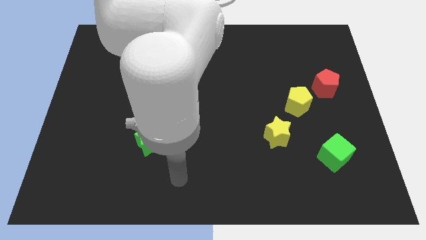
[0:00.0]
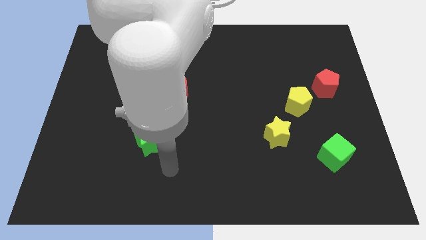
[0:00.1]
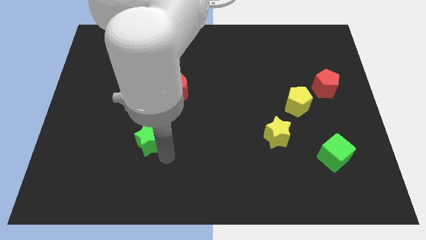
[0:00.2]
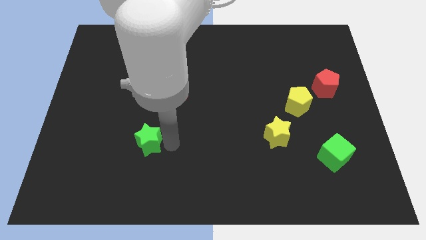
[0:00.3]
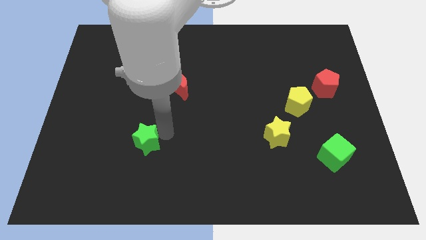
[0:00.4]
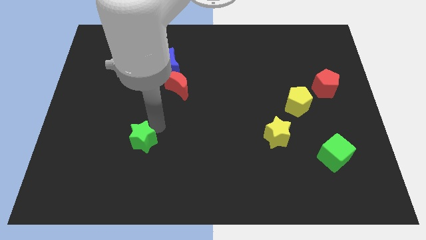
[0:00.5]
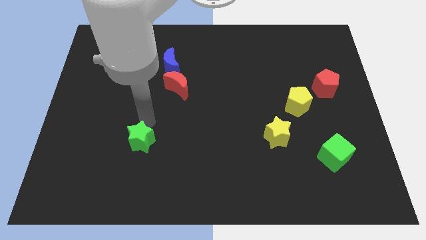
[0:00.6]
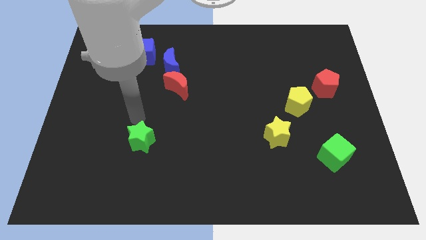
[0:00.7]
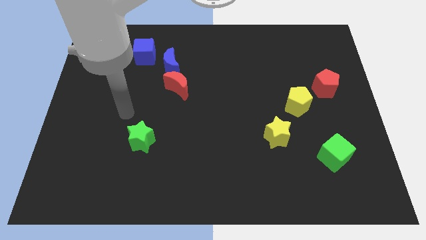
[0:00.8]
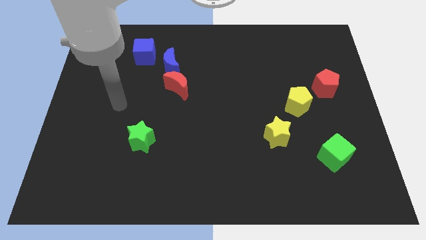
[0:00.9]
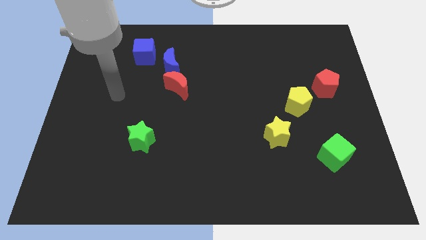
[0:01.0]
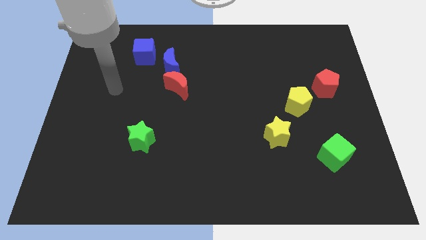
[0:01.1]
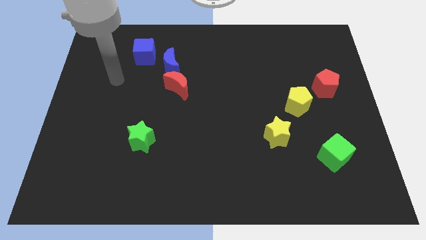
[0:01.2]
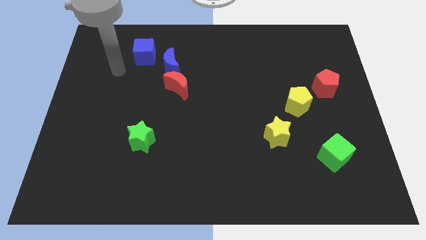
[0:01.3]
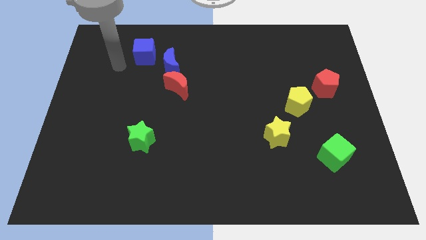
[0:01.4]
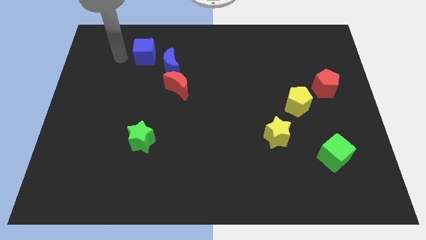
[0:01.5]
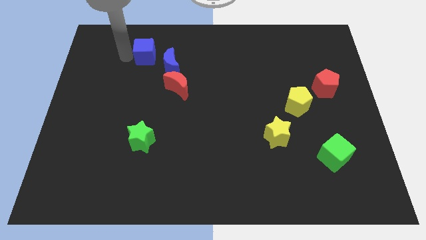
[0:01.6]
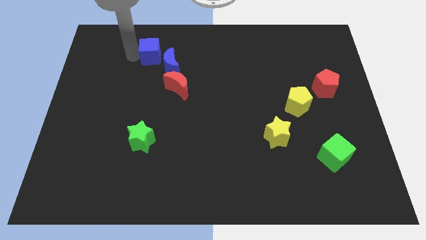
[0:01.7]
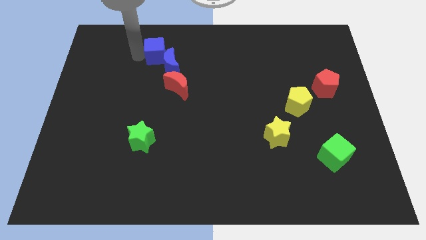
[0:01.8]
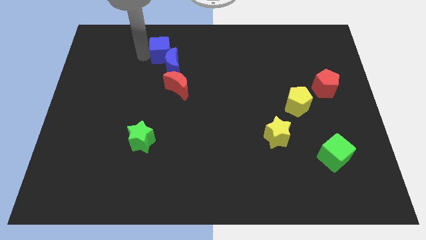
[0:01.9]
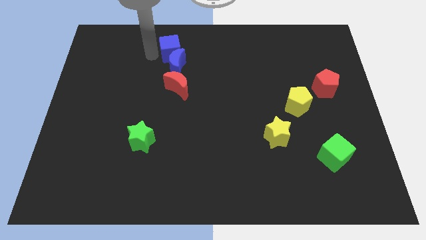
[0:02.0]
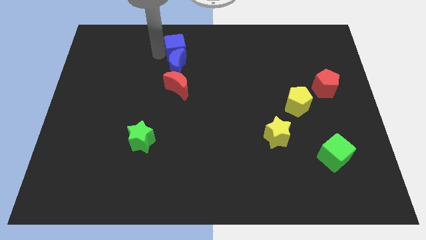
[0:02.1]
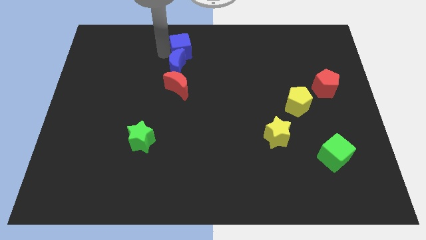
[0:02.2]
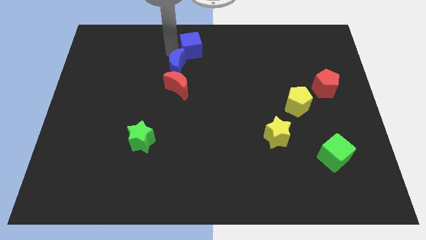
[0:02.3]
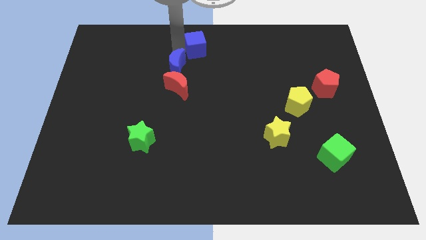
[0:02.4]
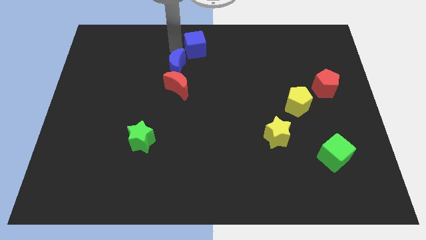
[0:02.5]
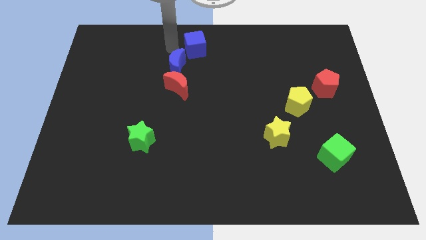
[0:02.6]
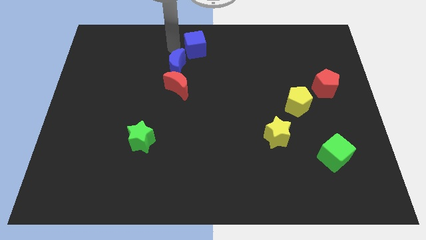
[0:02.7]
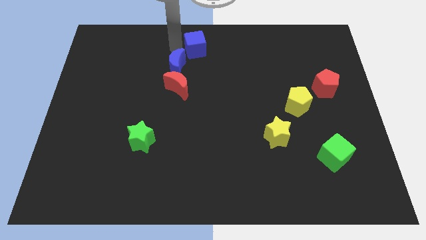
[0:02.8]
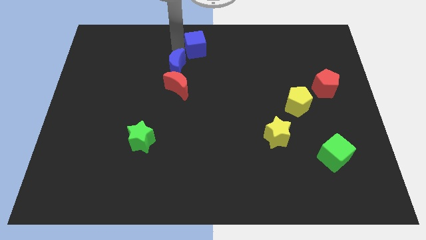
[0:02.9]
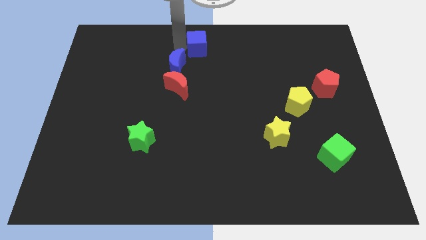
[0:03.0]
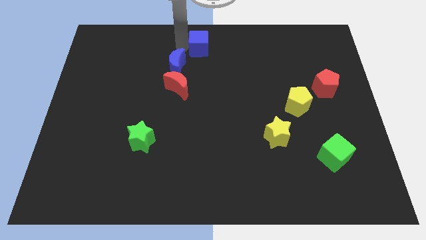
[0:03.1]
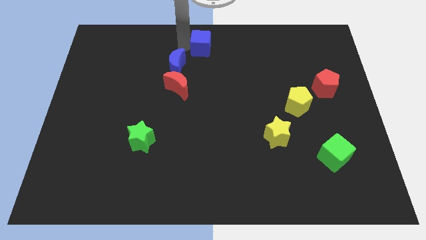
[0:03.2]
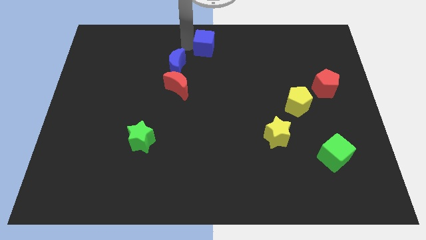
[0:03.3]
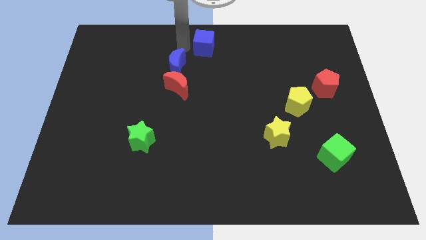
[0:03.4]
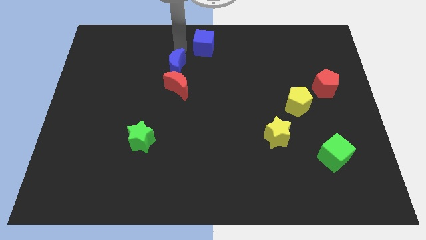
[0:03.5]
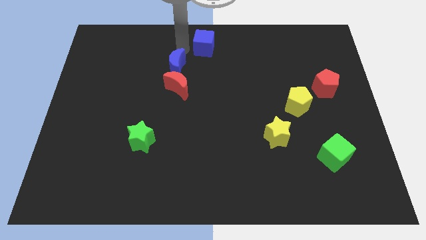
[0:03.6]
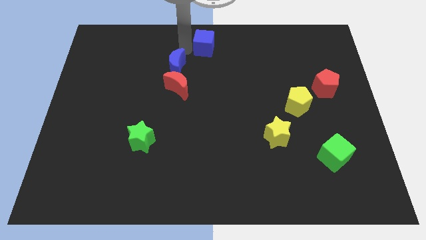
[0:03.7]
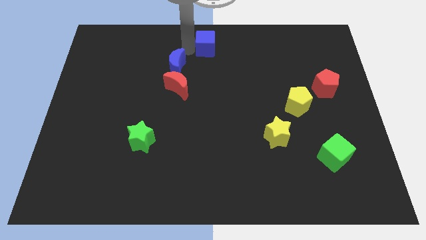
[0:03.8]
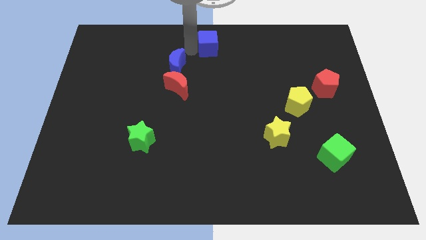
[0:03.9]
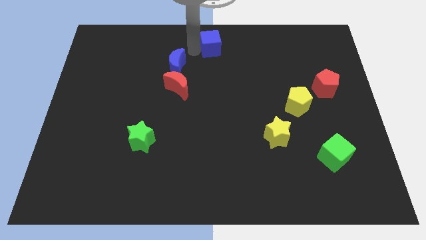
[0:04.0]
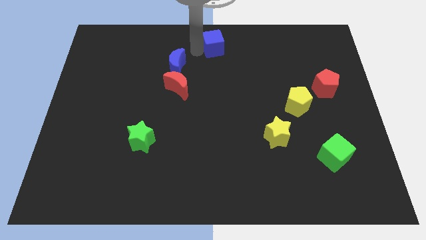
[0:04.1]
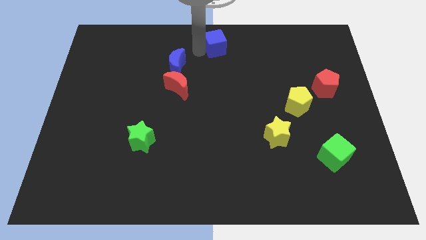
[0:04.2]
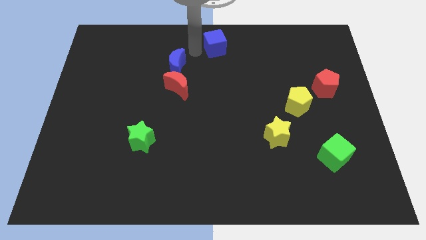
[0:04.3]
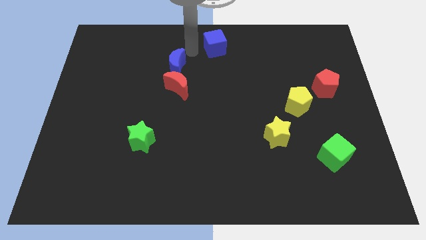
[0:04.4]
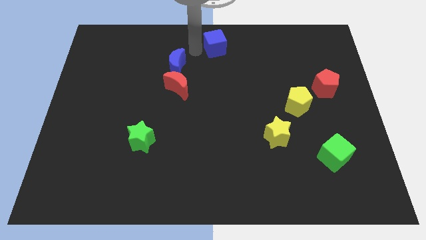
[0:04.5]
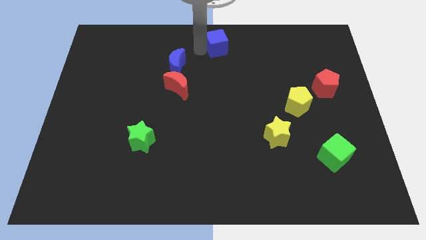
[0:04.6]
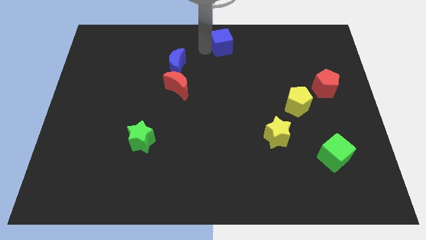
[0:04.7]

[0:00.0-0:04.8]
slide the blue cube to the right

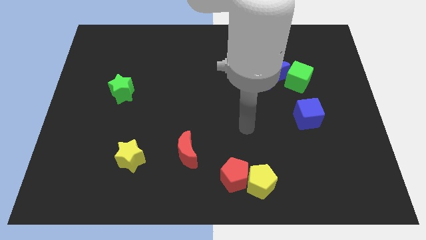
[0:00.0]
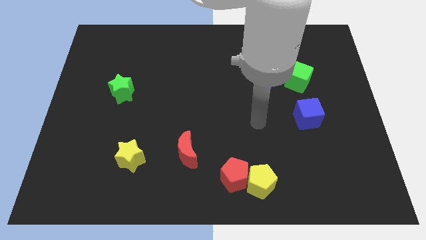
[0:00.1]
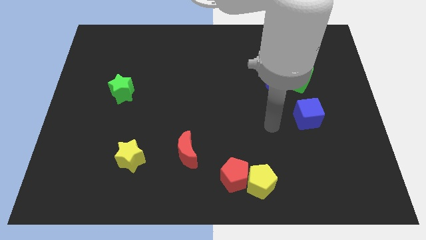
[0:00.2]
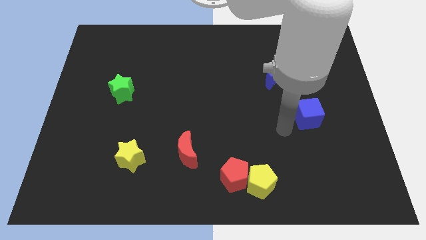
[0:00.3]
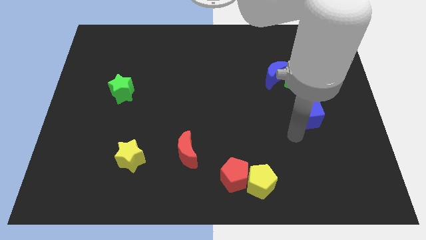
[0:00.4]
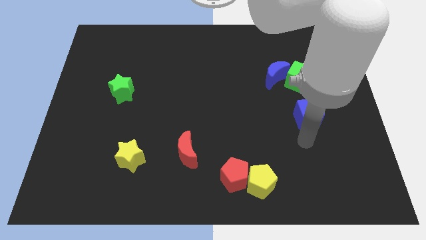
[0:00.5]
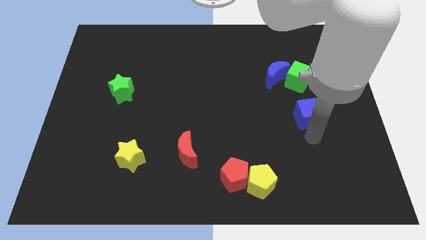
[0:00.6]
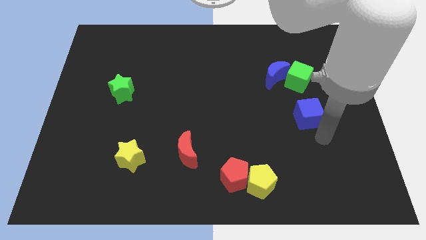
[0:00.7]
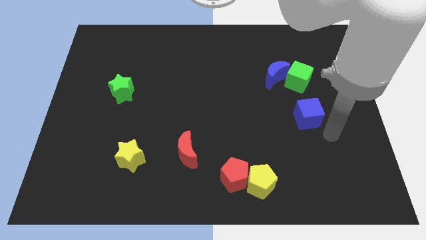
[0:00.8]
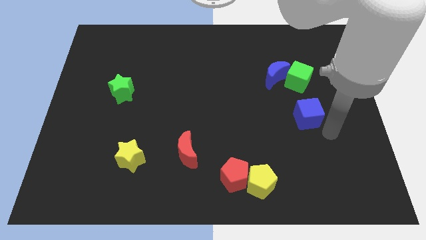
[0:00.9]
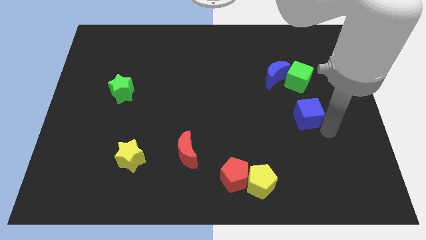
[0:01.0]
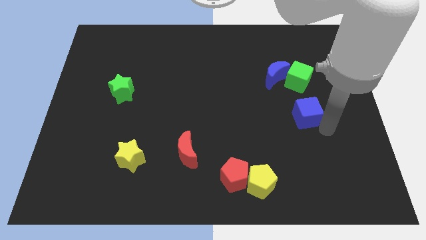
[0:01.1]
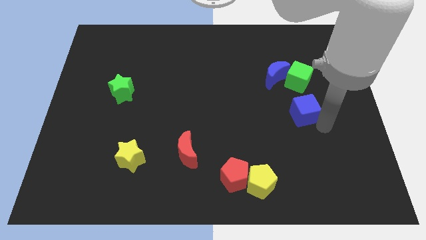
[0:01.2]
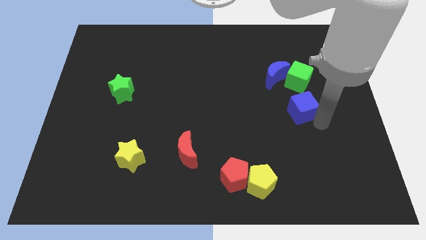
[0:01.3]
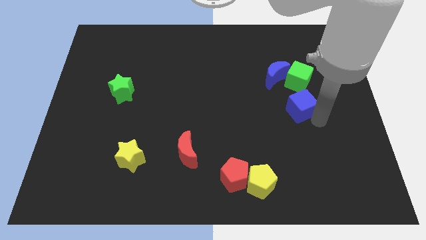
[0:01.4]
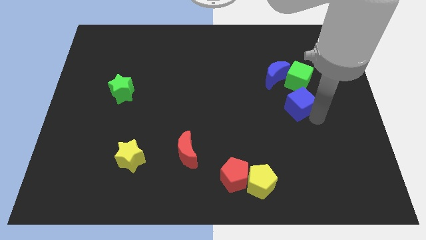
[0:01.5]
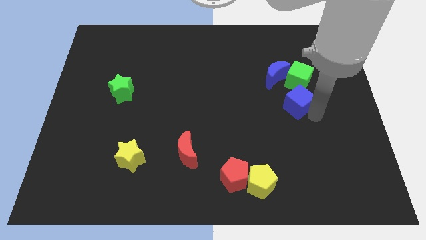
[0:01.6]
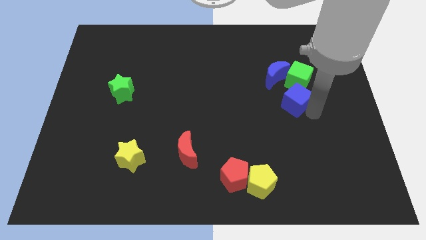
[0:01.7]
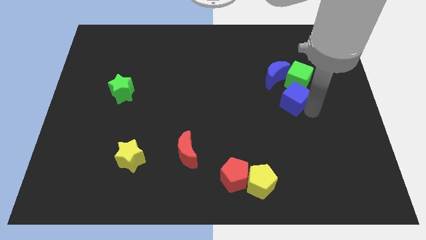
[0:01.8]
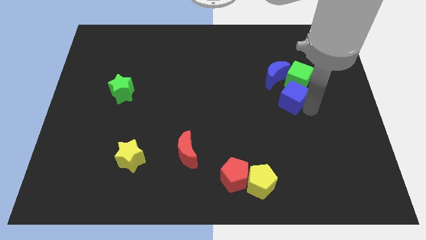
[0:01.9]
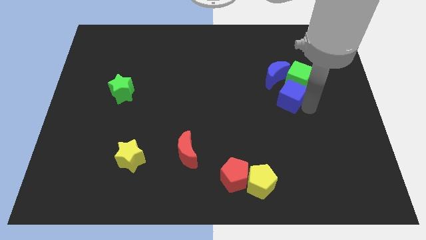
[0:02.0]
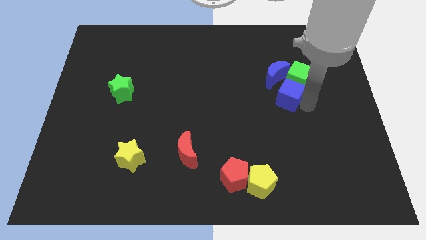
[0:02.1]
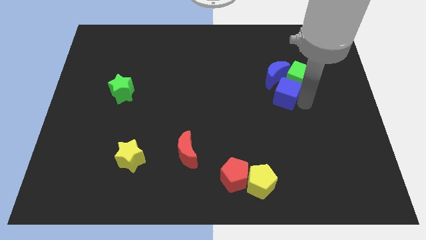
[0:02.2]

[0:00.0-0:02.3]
push the blue cube up and left a little bit

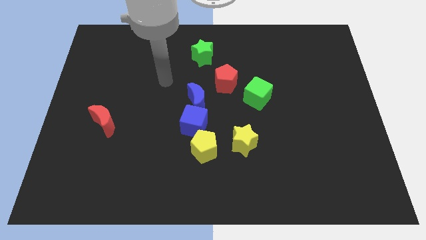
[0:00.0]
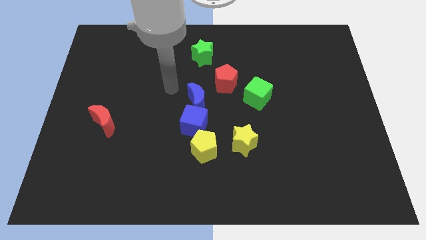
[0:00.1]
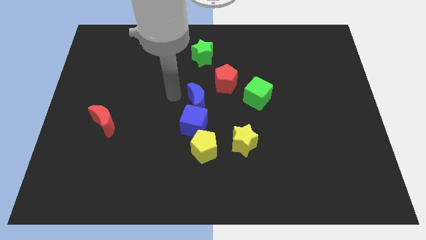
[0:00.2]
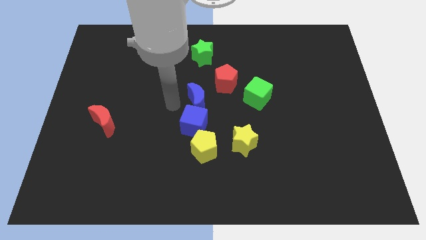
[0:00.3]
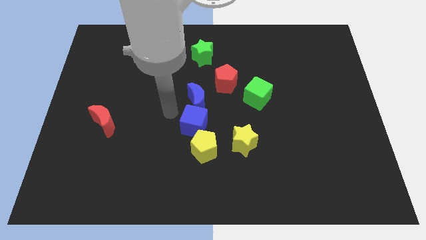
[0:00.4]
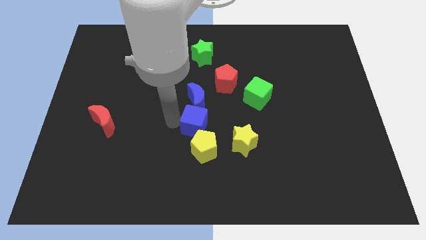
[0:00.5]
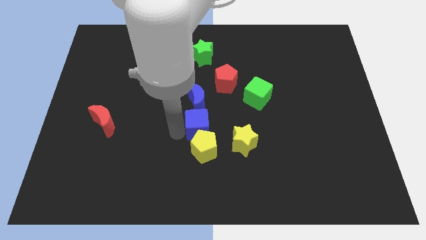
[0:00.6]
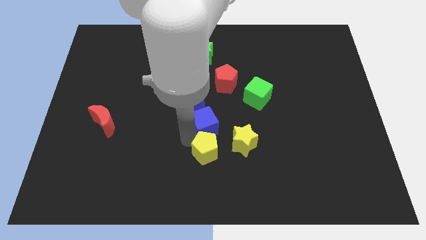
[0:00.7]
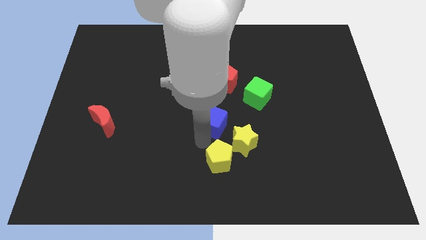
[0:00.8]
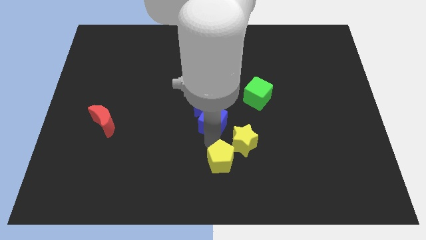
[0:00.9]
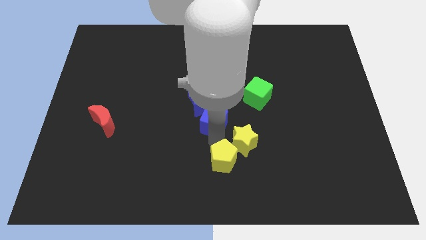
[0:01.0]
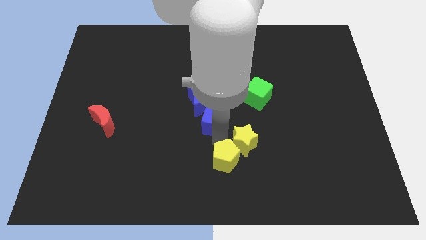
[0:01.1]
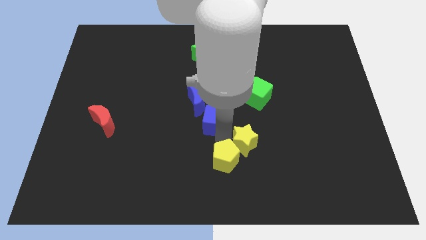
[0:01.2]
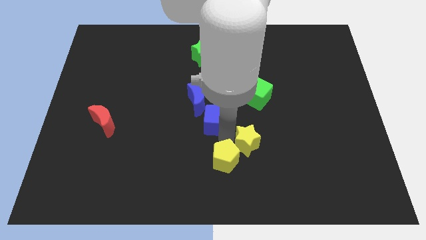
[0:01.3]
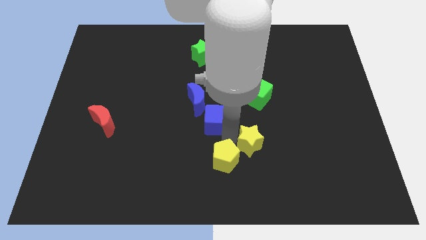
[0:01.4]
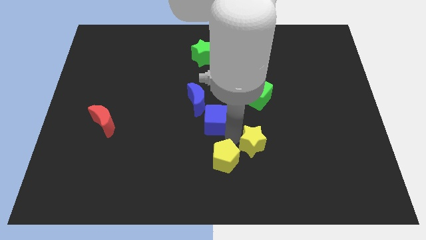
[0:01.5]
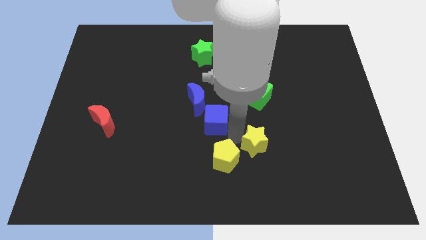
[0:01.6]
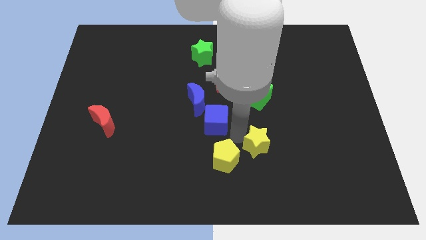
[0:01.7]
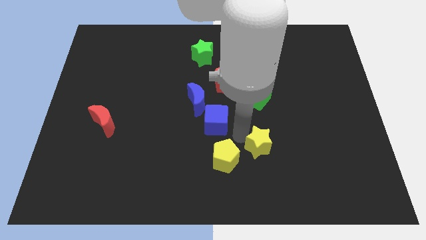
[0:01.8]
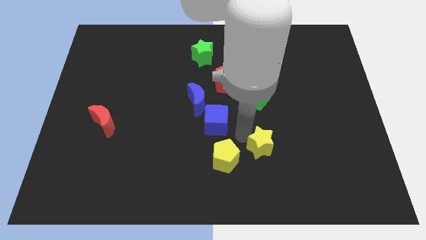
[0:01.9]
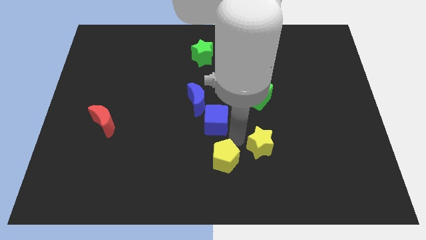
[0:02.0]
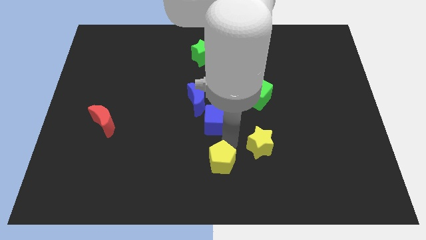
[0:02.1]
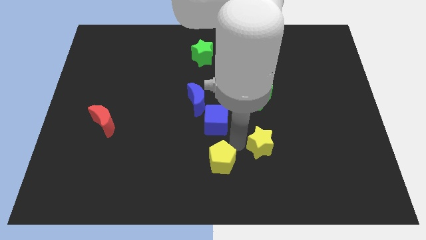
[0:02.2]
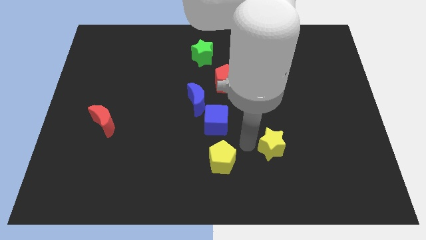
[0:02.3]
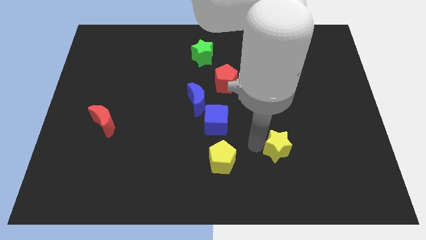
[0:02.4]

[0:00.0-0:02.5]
move the yellow star to the right slightly
